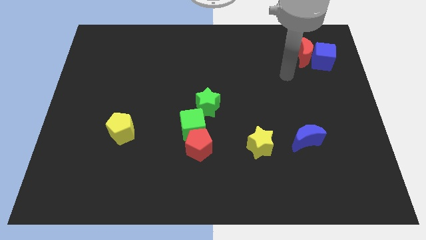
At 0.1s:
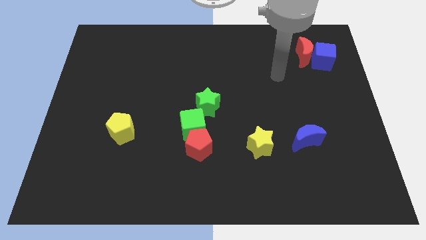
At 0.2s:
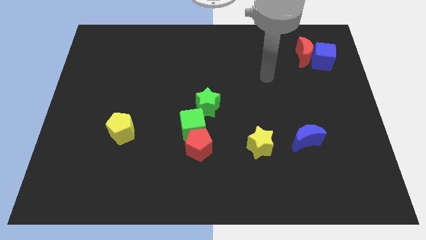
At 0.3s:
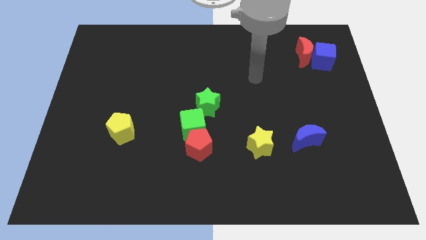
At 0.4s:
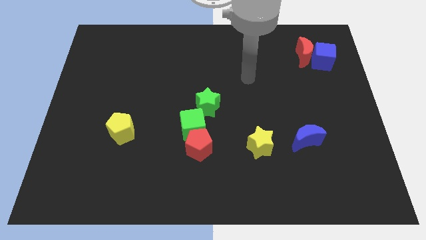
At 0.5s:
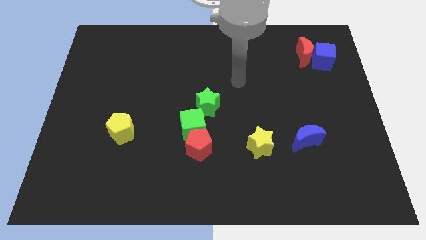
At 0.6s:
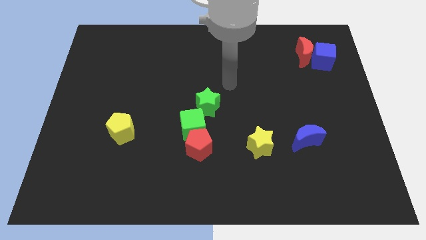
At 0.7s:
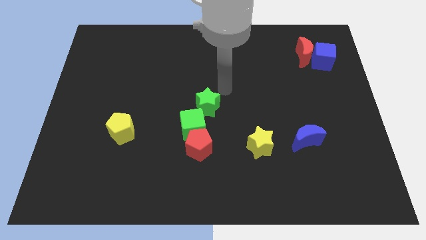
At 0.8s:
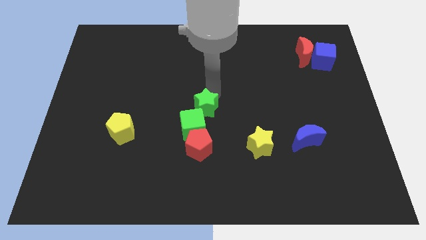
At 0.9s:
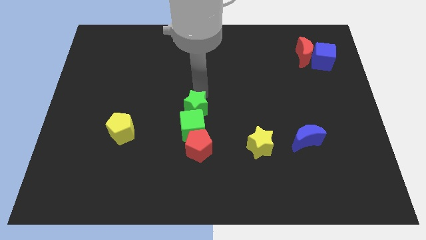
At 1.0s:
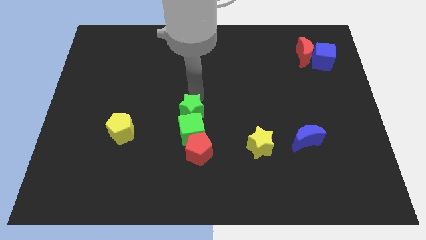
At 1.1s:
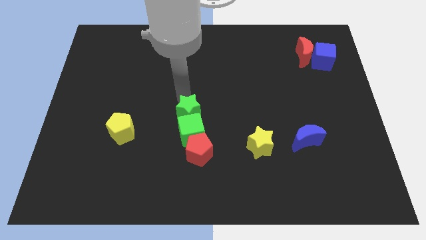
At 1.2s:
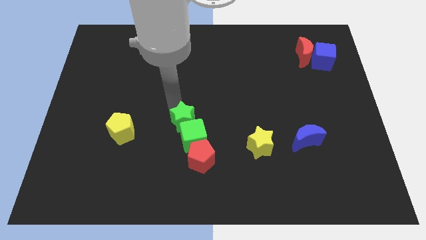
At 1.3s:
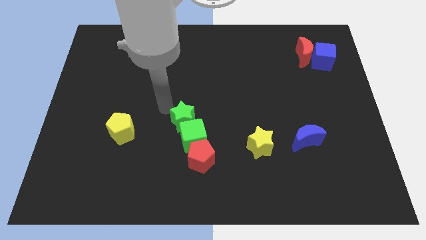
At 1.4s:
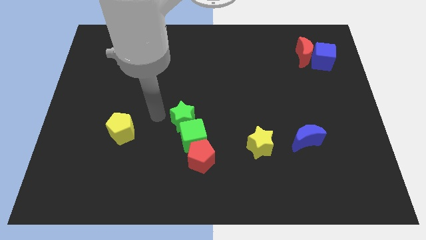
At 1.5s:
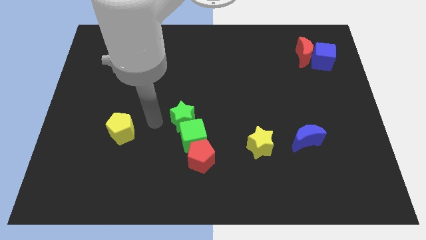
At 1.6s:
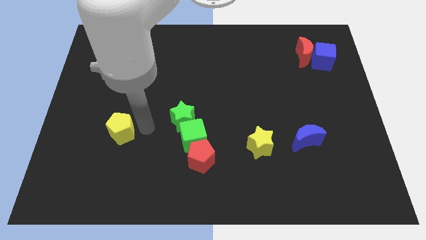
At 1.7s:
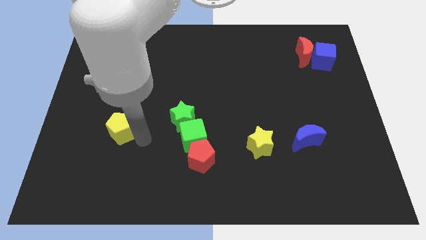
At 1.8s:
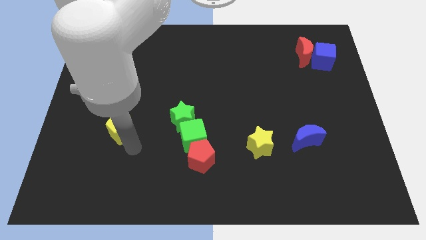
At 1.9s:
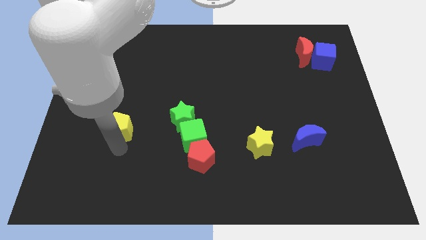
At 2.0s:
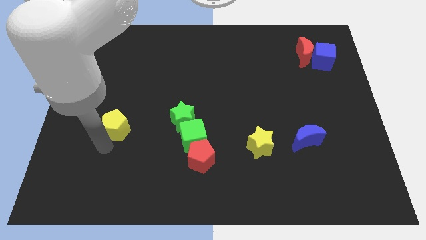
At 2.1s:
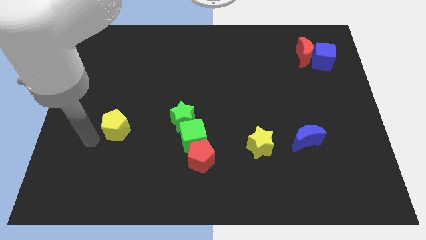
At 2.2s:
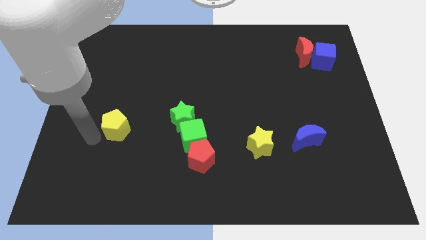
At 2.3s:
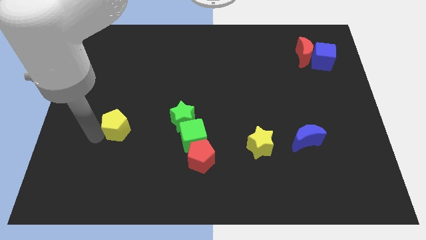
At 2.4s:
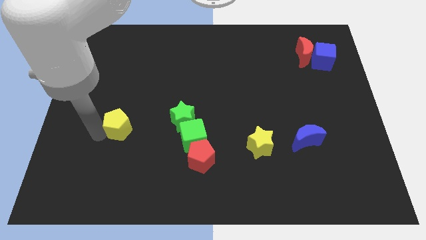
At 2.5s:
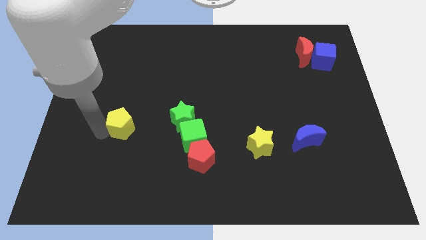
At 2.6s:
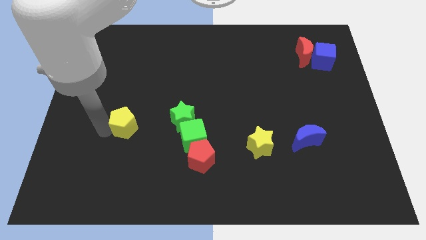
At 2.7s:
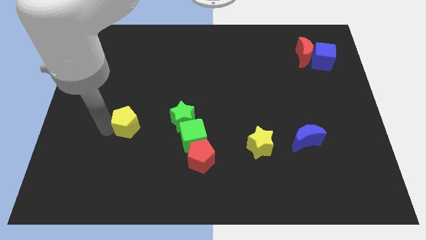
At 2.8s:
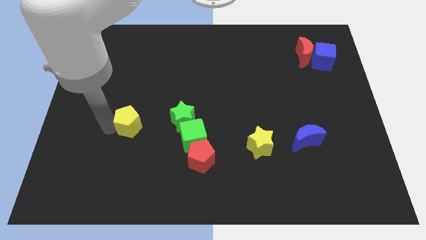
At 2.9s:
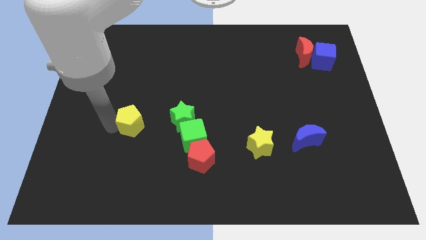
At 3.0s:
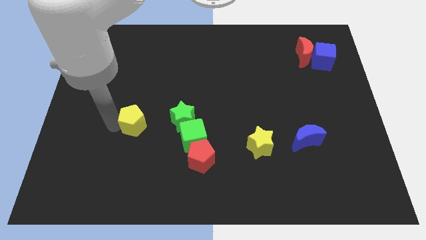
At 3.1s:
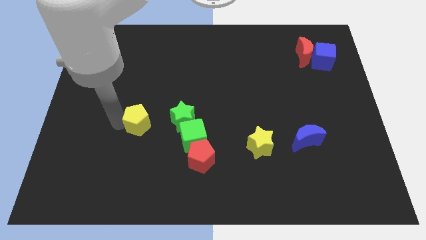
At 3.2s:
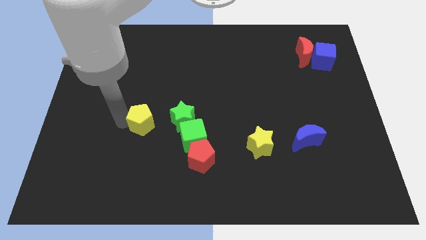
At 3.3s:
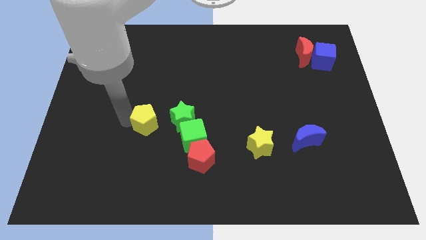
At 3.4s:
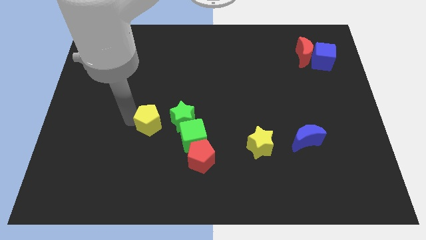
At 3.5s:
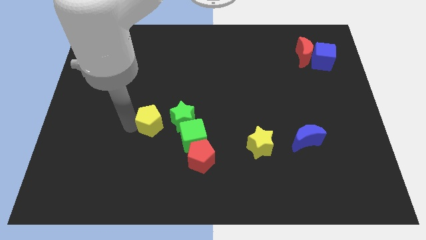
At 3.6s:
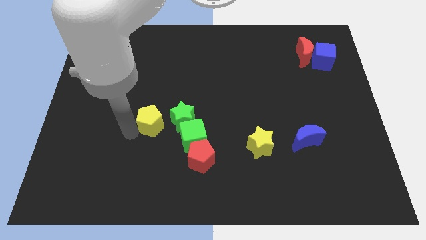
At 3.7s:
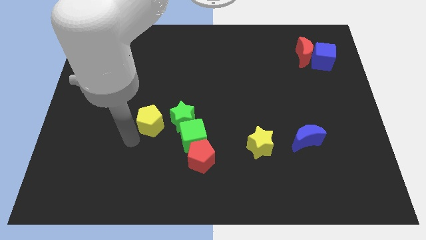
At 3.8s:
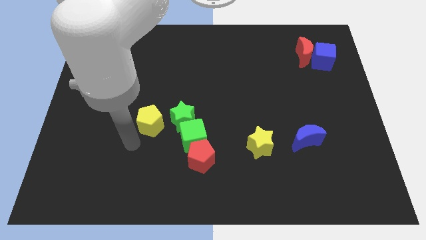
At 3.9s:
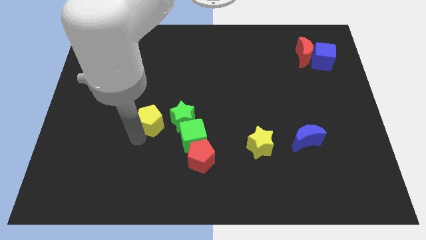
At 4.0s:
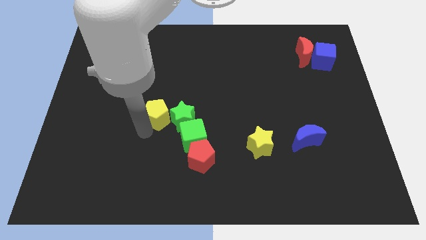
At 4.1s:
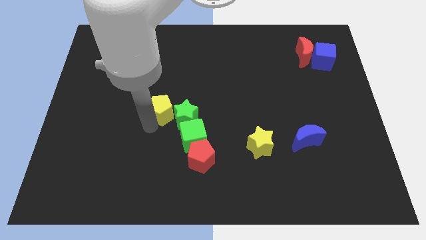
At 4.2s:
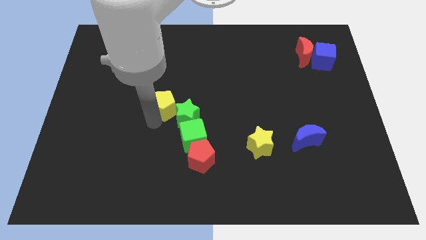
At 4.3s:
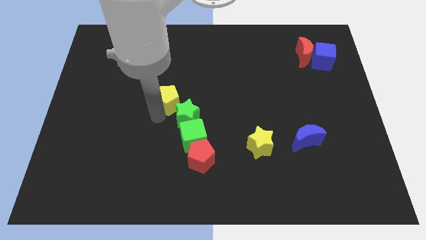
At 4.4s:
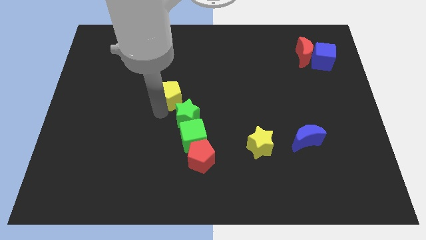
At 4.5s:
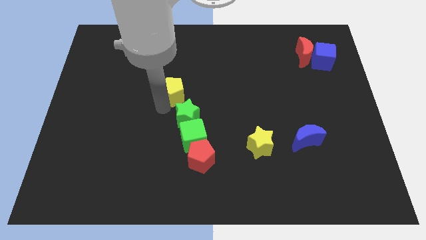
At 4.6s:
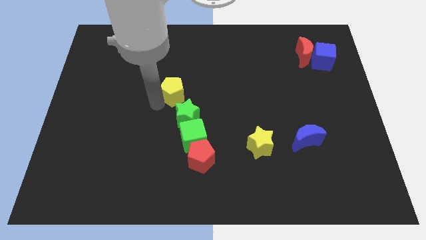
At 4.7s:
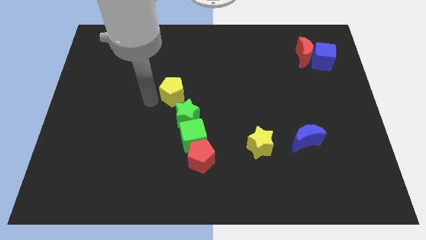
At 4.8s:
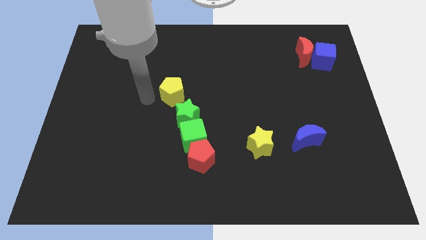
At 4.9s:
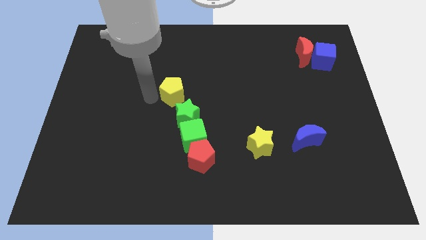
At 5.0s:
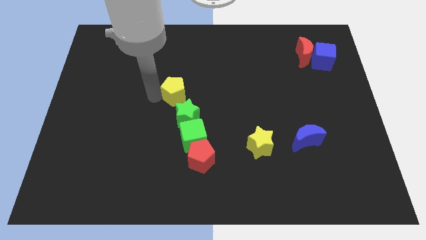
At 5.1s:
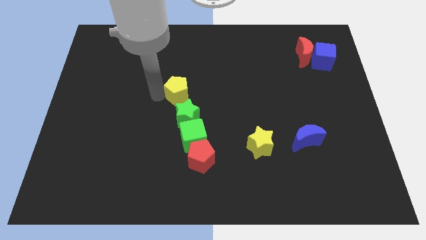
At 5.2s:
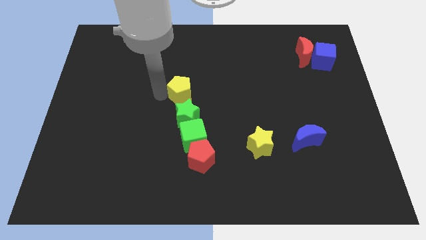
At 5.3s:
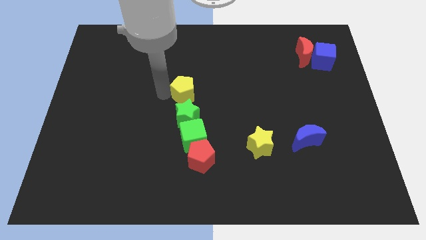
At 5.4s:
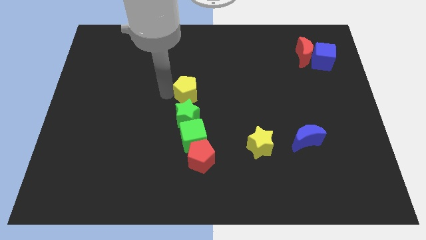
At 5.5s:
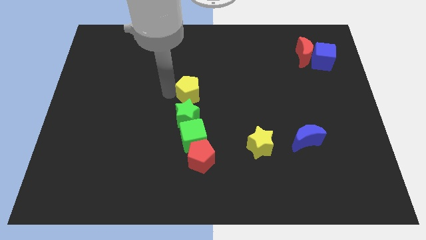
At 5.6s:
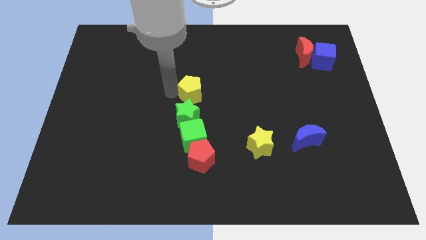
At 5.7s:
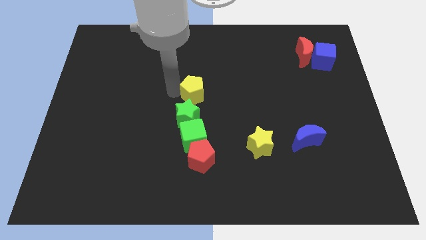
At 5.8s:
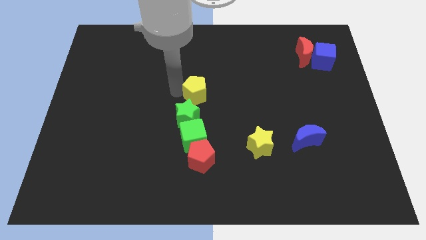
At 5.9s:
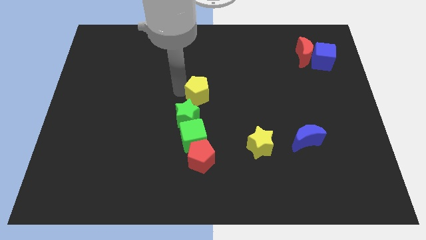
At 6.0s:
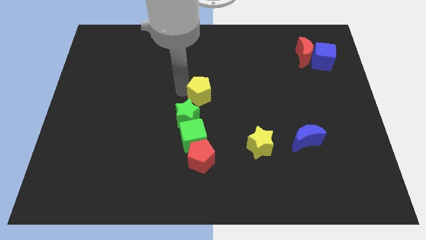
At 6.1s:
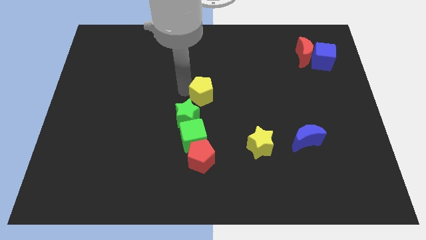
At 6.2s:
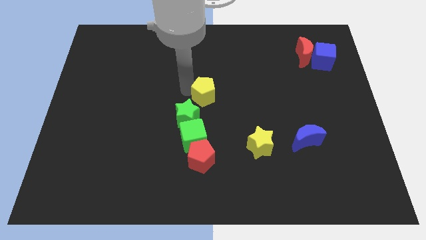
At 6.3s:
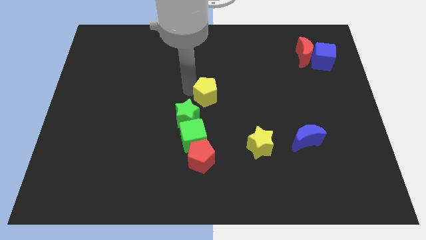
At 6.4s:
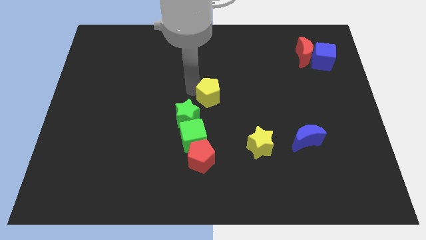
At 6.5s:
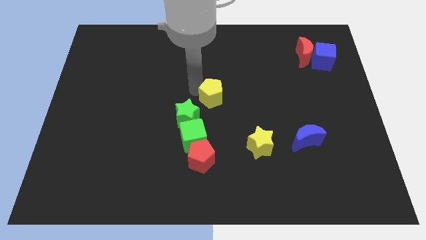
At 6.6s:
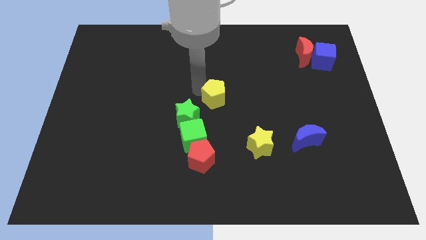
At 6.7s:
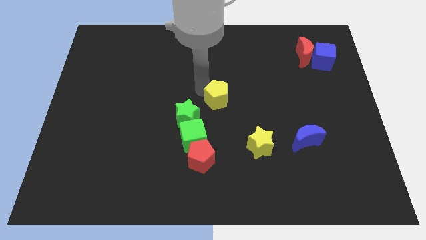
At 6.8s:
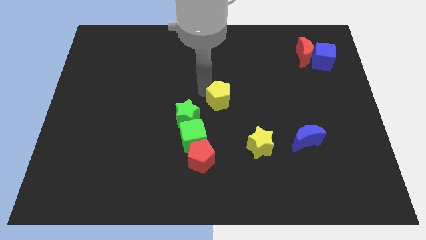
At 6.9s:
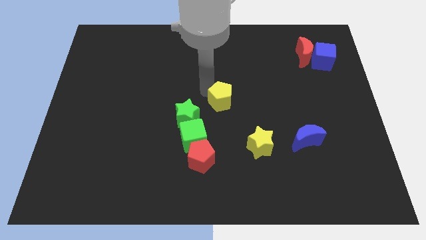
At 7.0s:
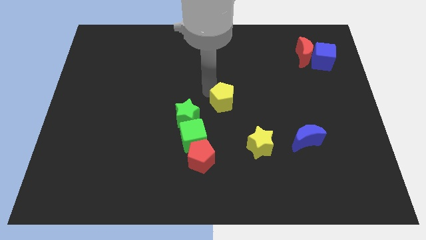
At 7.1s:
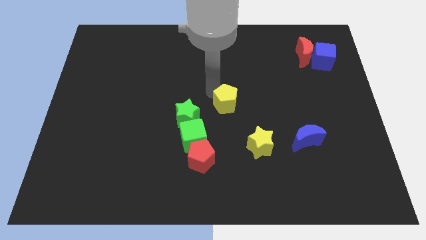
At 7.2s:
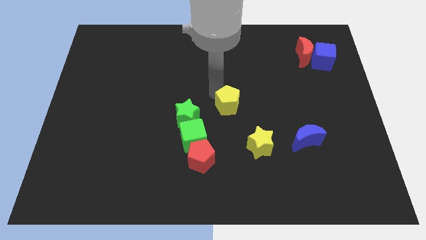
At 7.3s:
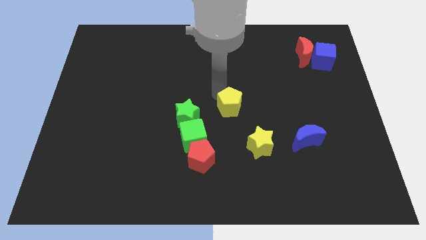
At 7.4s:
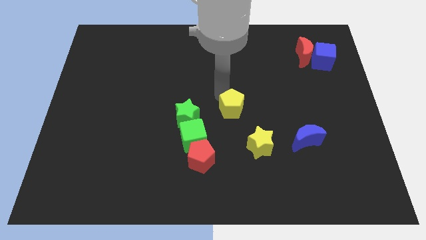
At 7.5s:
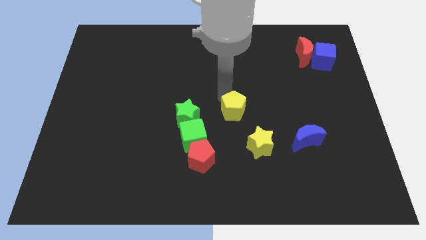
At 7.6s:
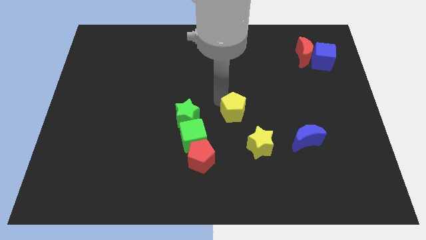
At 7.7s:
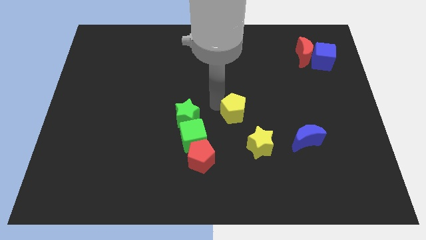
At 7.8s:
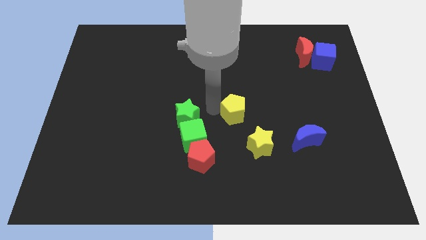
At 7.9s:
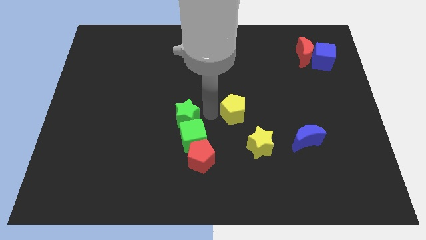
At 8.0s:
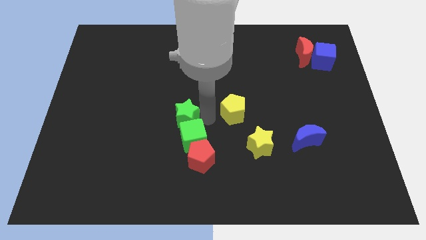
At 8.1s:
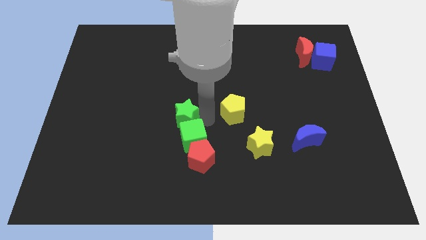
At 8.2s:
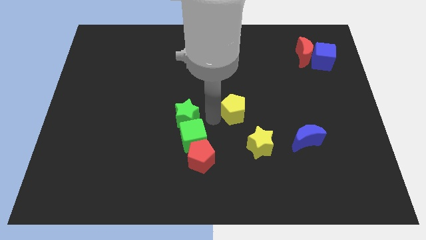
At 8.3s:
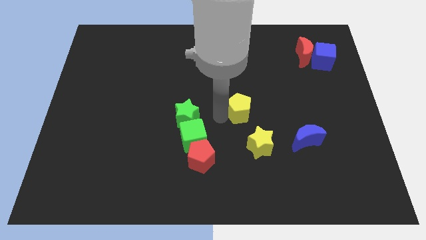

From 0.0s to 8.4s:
put the yellow pentagon to the top side of the yellow star

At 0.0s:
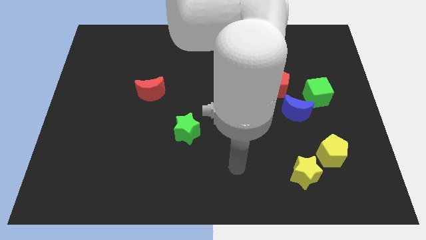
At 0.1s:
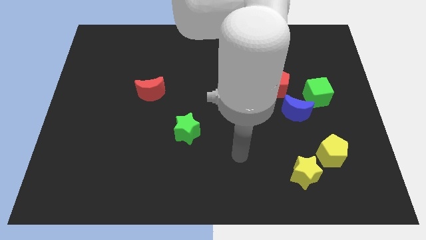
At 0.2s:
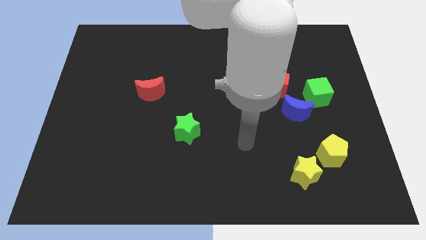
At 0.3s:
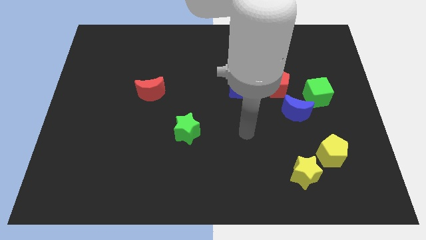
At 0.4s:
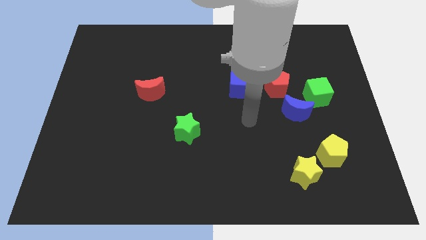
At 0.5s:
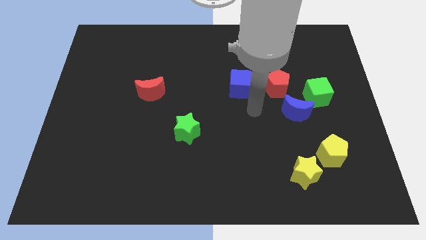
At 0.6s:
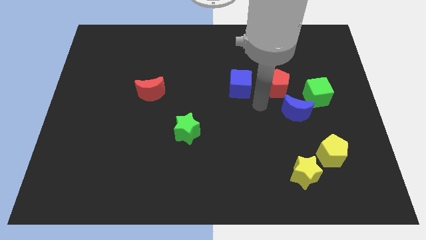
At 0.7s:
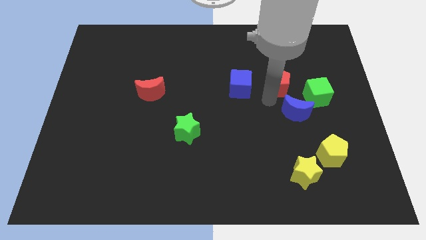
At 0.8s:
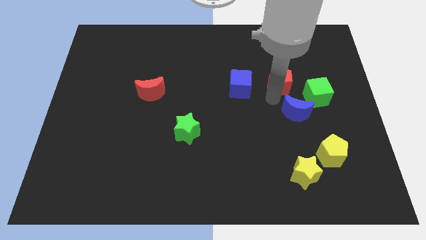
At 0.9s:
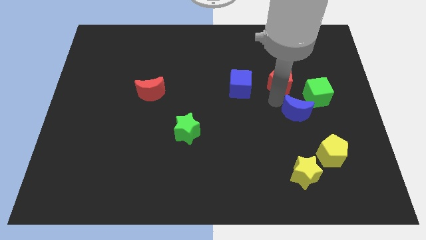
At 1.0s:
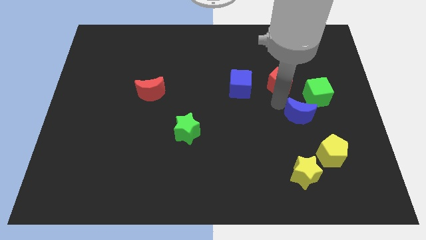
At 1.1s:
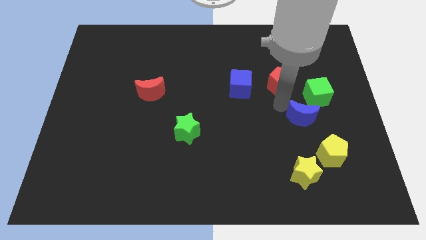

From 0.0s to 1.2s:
push the blue moon to the bottom side of the green cube
